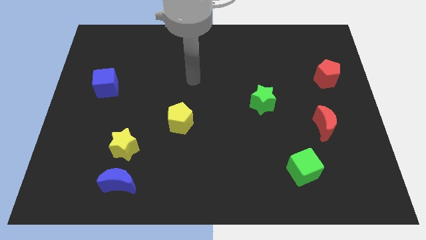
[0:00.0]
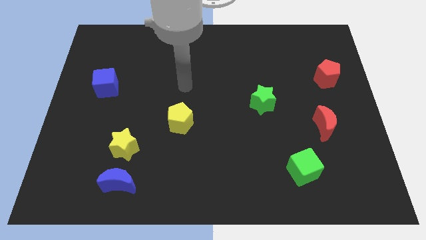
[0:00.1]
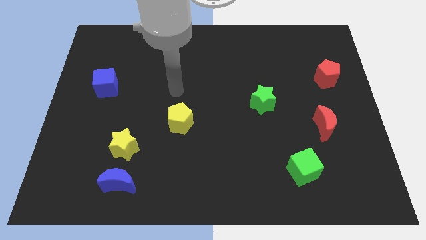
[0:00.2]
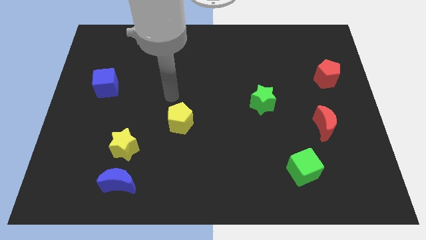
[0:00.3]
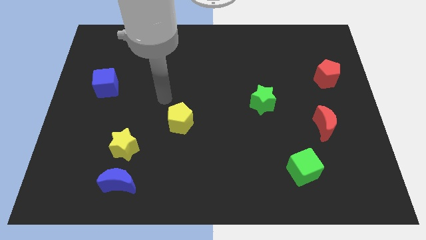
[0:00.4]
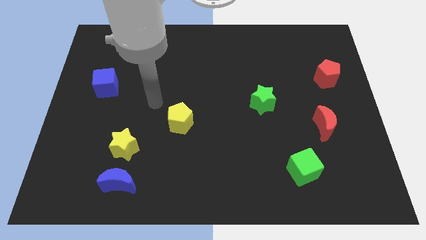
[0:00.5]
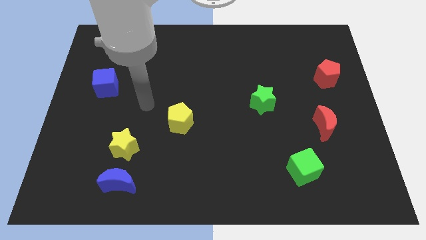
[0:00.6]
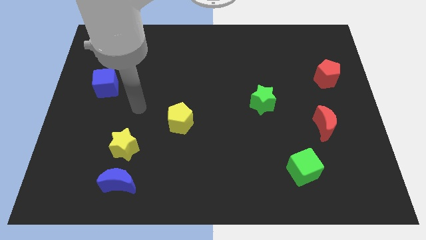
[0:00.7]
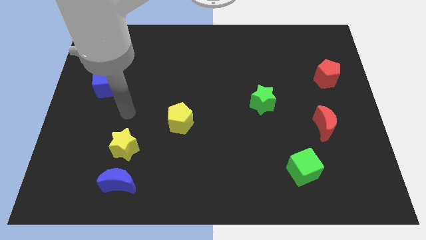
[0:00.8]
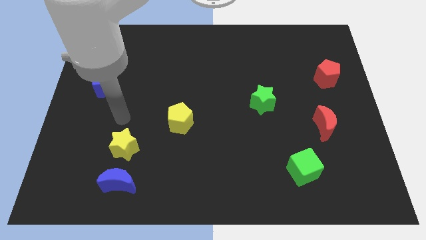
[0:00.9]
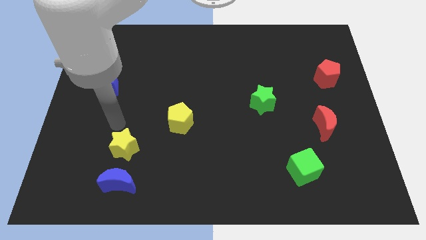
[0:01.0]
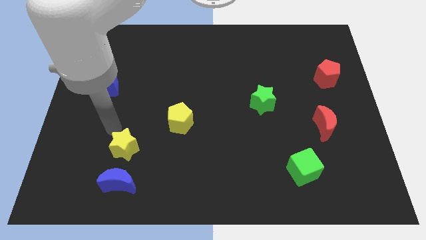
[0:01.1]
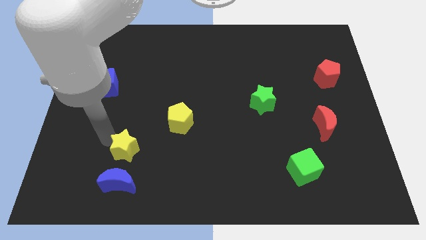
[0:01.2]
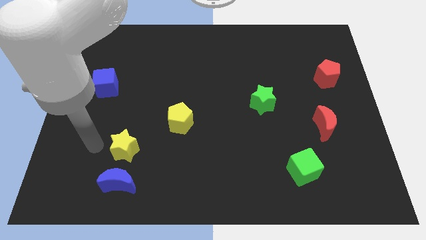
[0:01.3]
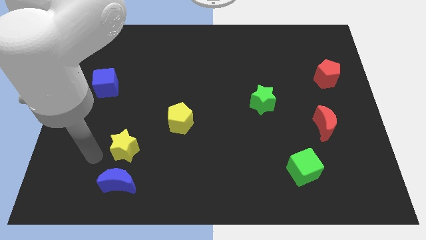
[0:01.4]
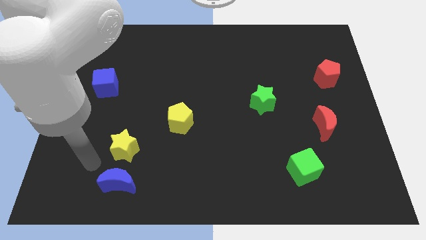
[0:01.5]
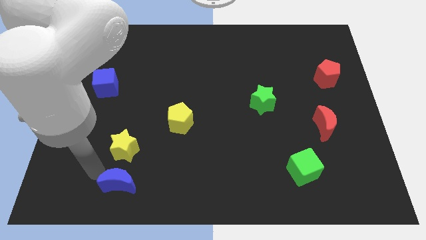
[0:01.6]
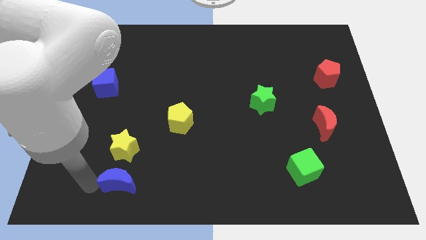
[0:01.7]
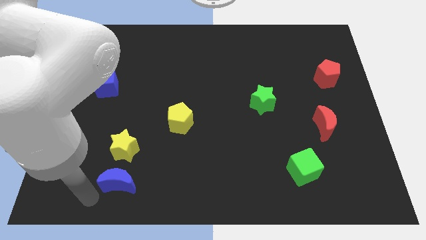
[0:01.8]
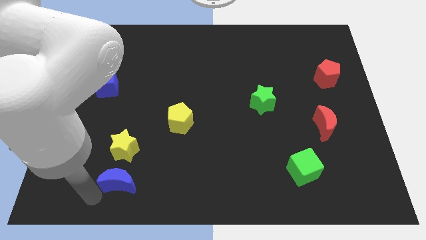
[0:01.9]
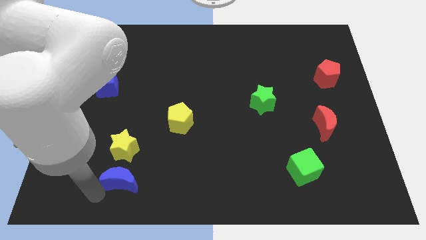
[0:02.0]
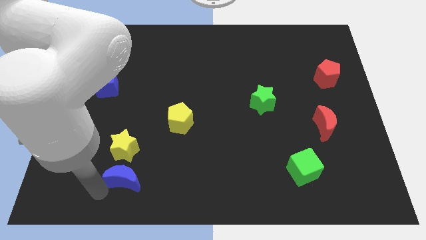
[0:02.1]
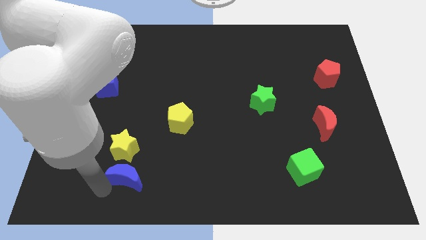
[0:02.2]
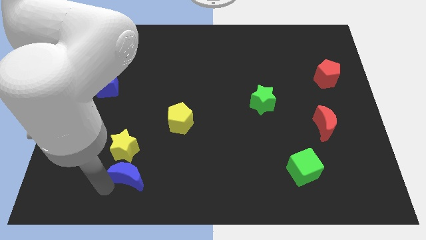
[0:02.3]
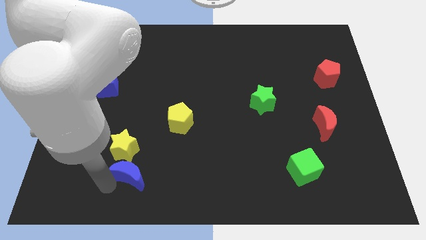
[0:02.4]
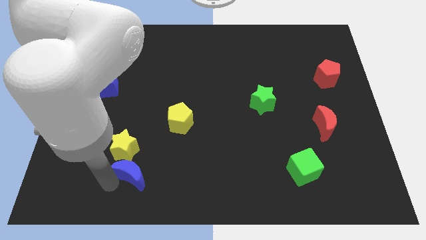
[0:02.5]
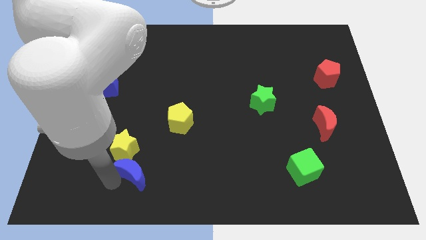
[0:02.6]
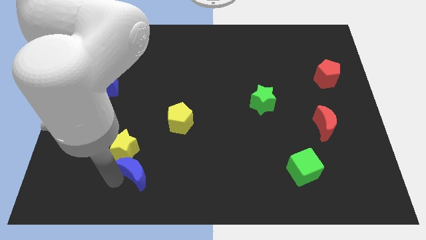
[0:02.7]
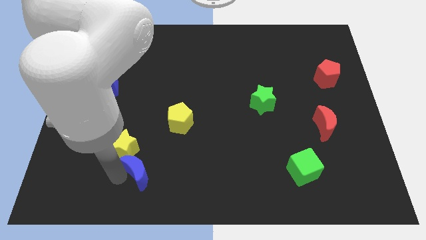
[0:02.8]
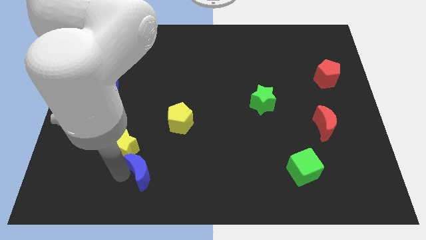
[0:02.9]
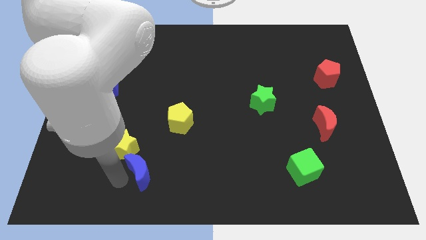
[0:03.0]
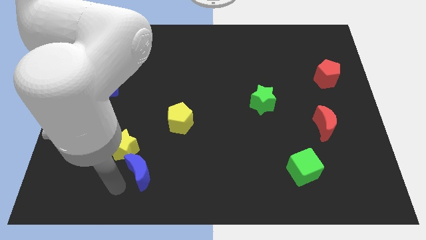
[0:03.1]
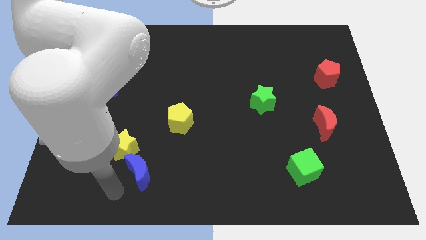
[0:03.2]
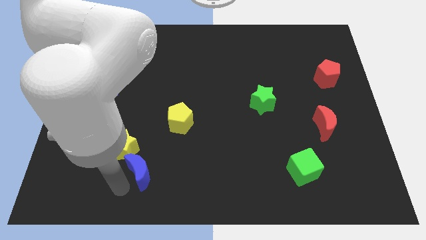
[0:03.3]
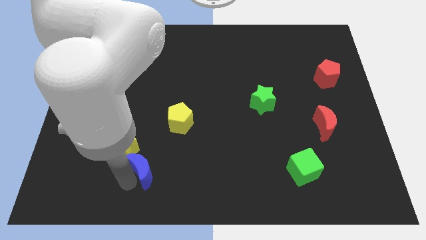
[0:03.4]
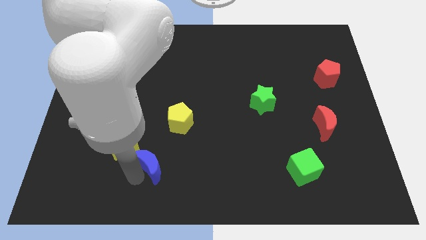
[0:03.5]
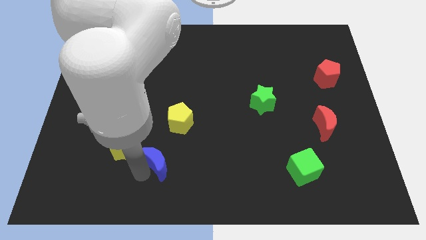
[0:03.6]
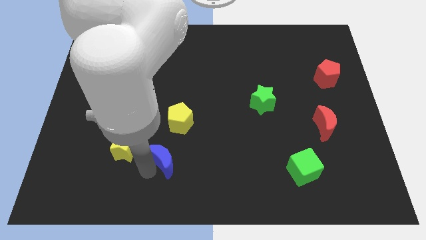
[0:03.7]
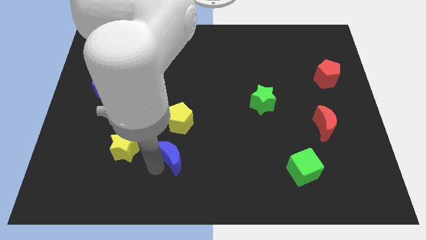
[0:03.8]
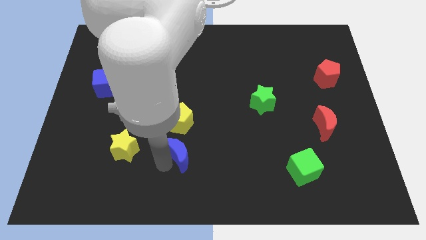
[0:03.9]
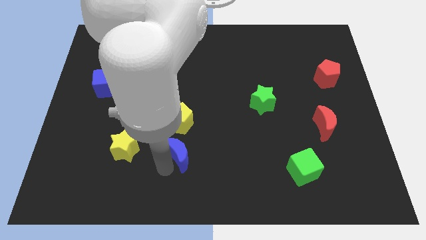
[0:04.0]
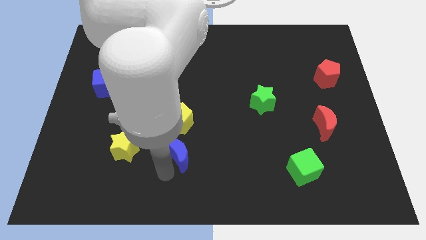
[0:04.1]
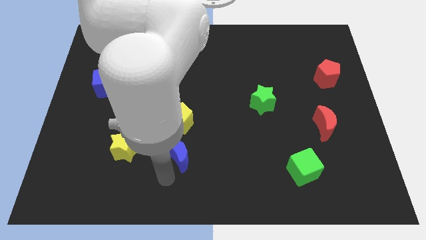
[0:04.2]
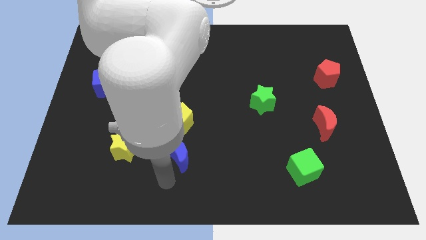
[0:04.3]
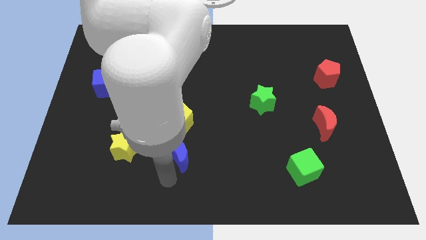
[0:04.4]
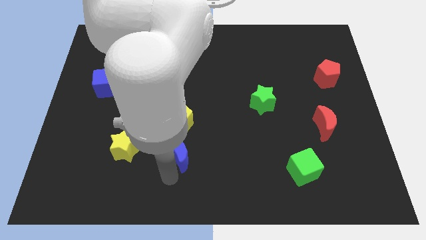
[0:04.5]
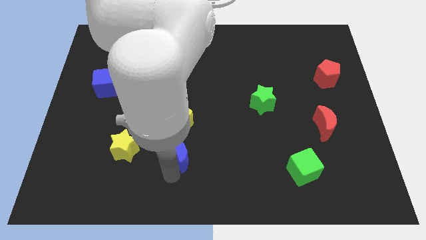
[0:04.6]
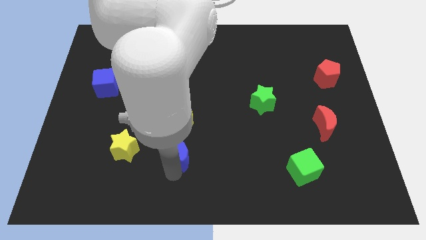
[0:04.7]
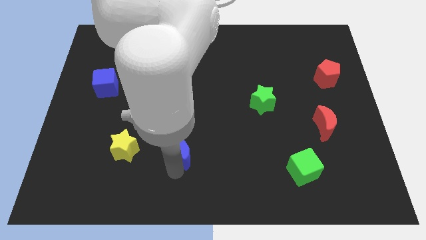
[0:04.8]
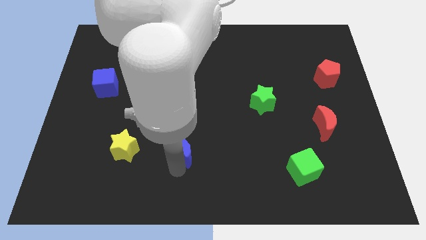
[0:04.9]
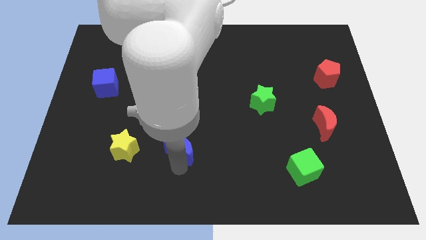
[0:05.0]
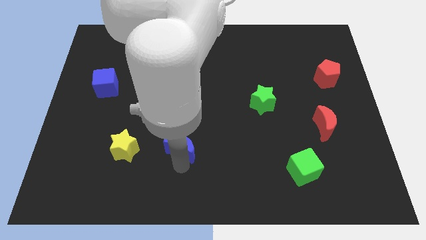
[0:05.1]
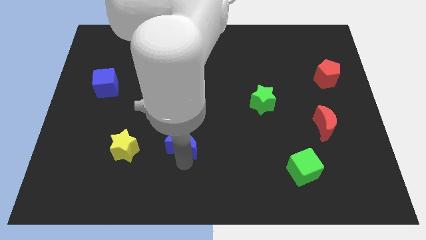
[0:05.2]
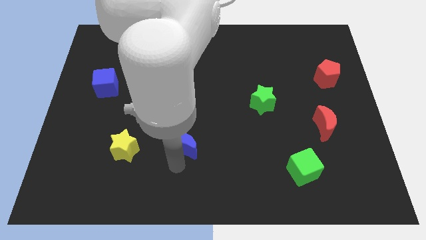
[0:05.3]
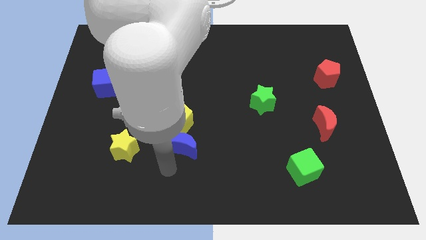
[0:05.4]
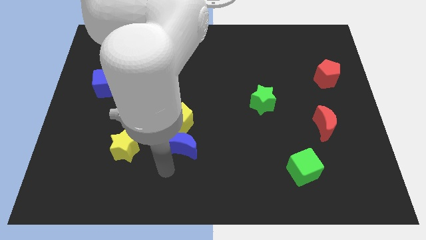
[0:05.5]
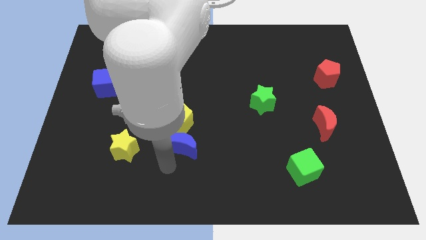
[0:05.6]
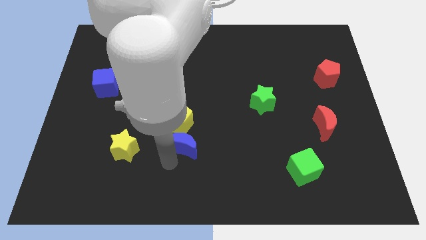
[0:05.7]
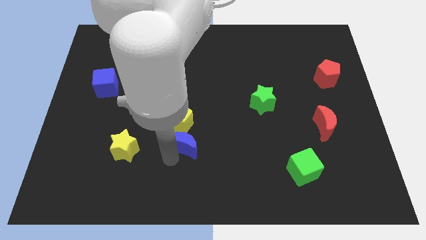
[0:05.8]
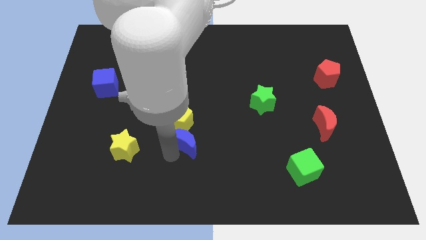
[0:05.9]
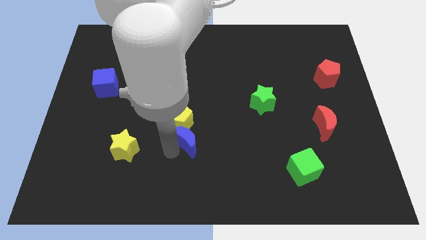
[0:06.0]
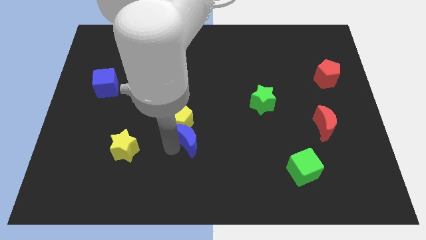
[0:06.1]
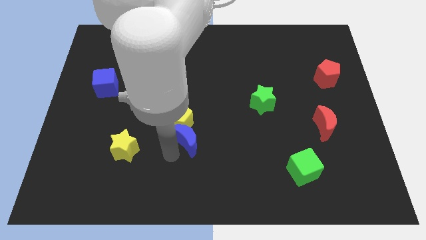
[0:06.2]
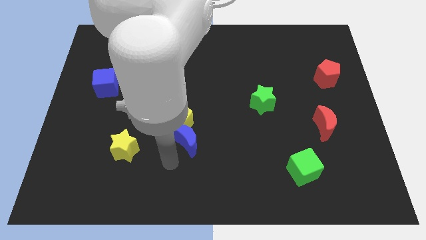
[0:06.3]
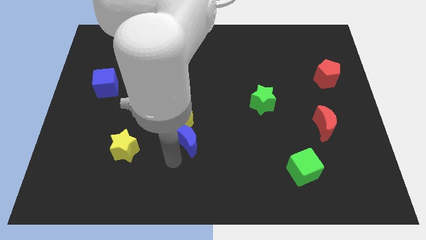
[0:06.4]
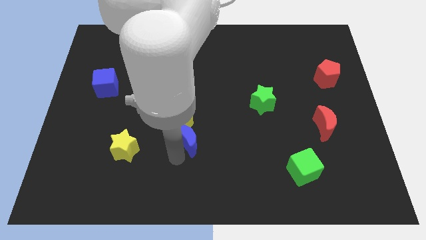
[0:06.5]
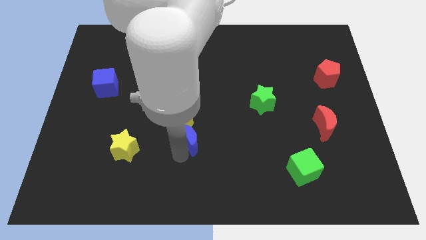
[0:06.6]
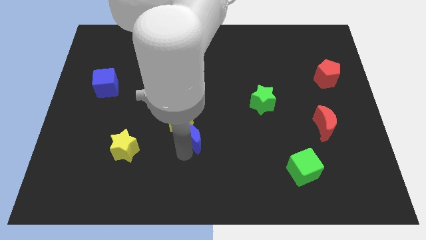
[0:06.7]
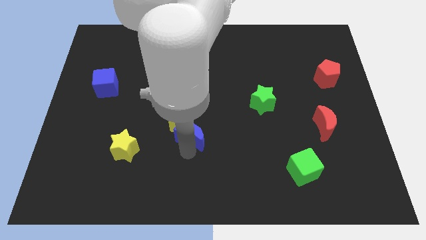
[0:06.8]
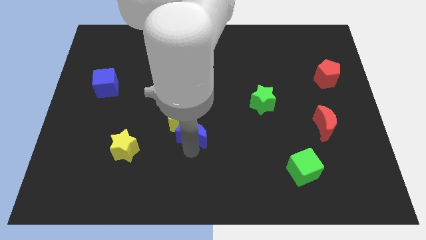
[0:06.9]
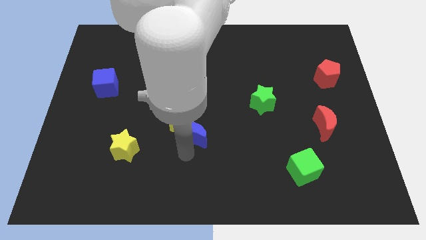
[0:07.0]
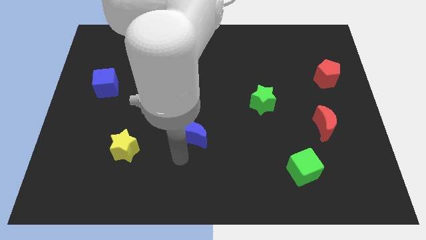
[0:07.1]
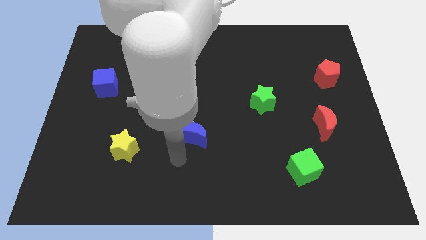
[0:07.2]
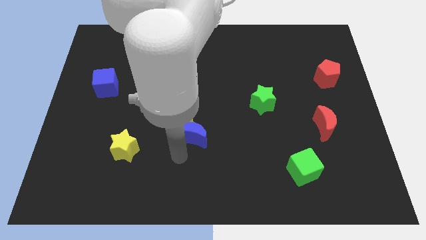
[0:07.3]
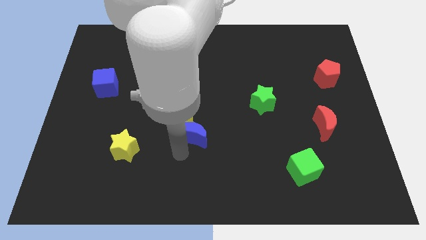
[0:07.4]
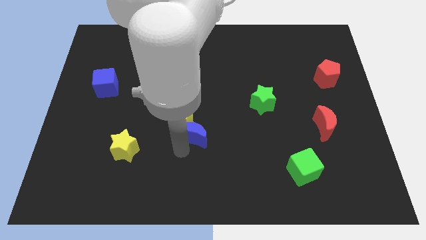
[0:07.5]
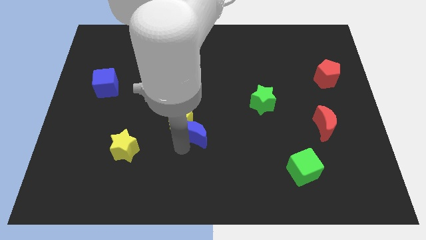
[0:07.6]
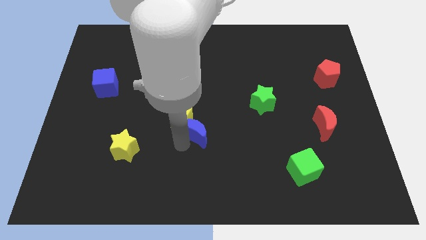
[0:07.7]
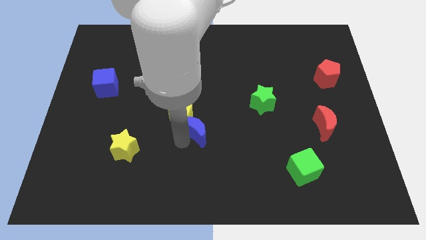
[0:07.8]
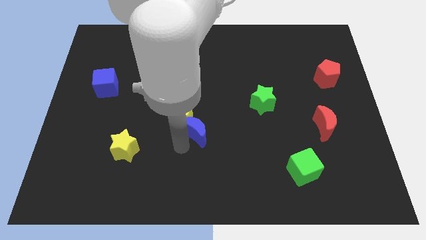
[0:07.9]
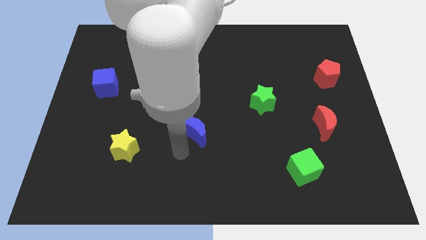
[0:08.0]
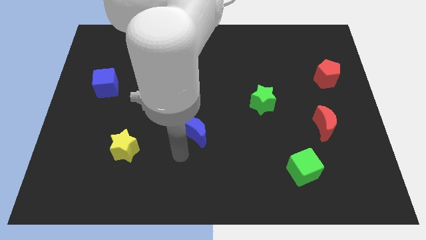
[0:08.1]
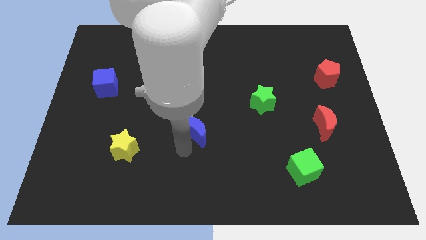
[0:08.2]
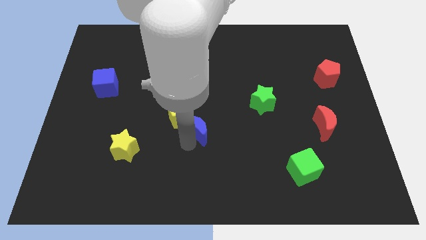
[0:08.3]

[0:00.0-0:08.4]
slide the blue moon diagonally up and to the right
